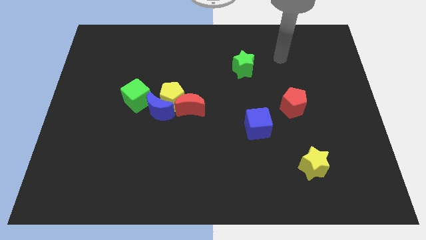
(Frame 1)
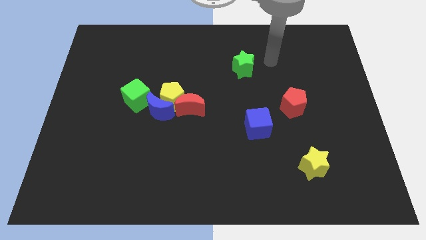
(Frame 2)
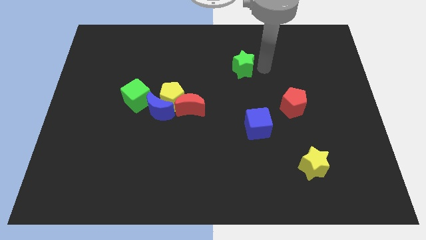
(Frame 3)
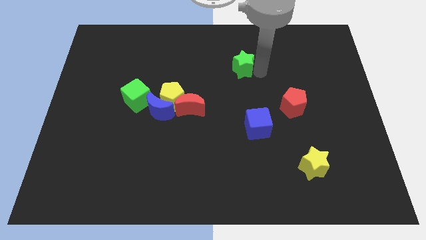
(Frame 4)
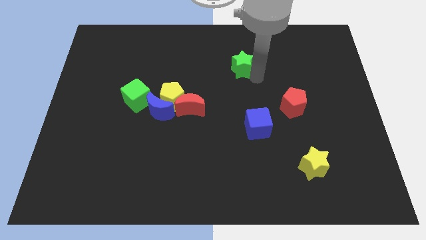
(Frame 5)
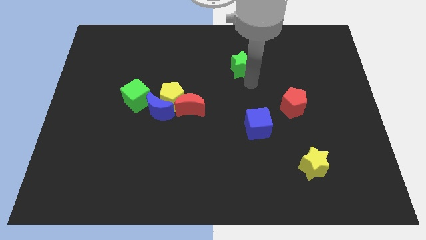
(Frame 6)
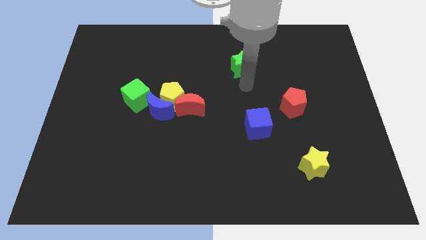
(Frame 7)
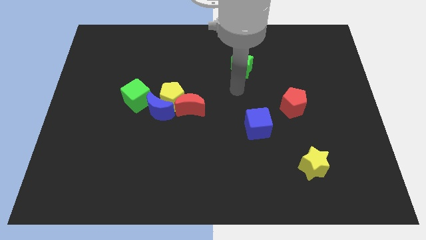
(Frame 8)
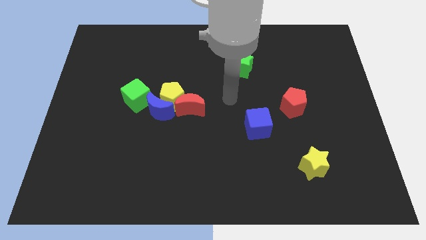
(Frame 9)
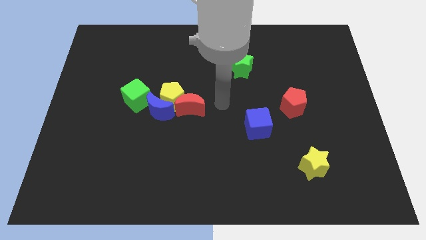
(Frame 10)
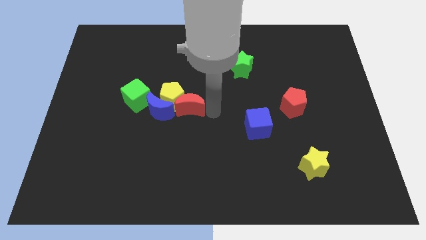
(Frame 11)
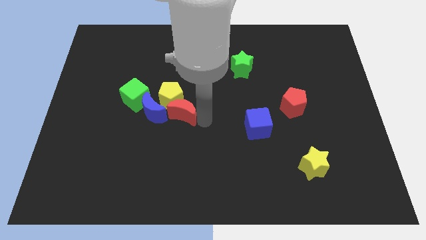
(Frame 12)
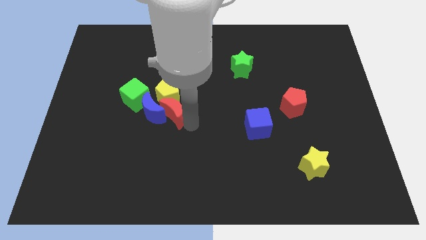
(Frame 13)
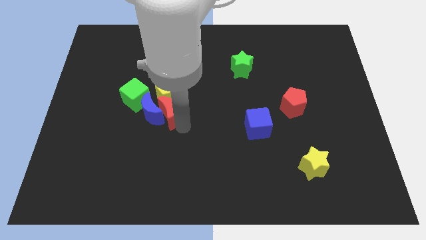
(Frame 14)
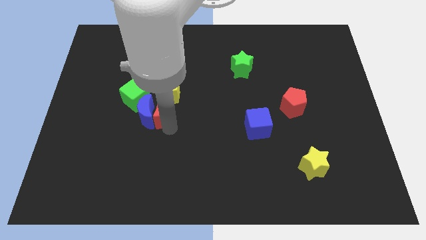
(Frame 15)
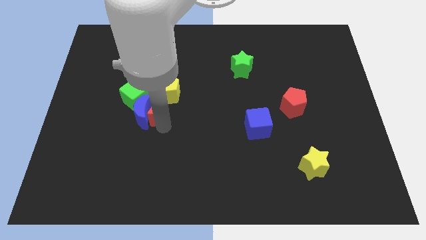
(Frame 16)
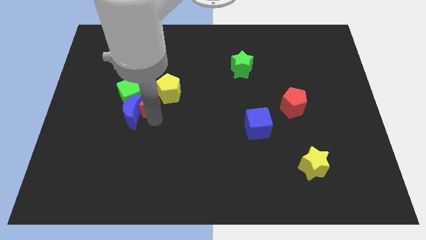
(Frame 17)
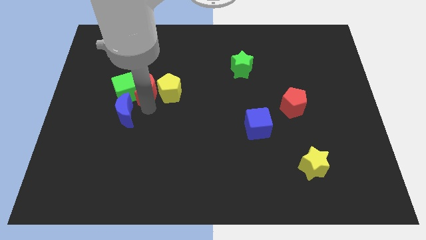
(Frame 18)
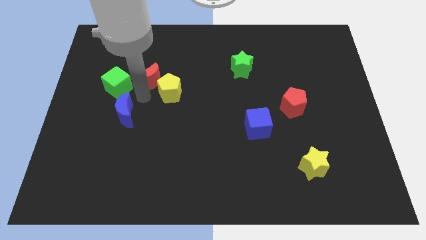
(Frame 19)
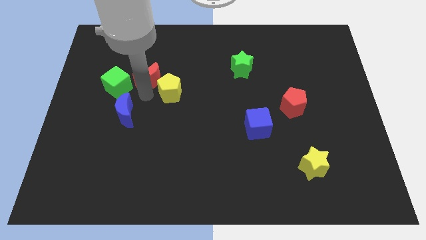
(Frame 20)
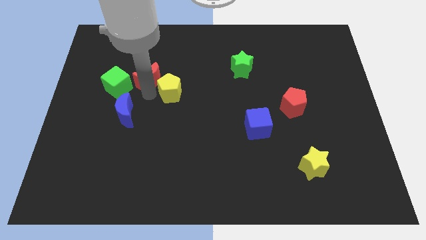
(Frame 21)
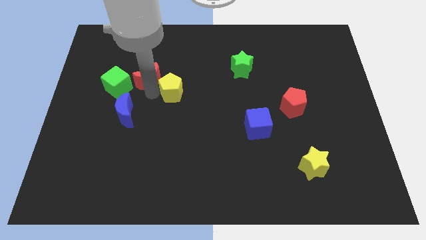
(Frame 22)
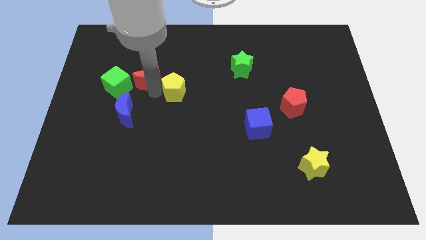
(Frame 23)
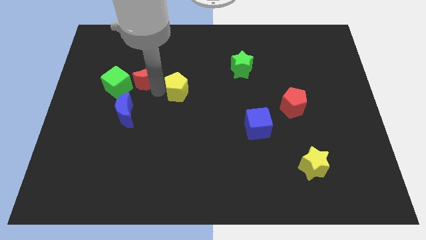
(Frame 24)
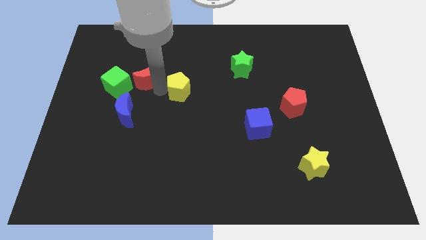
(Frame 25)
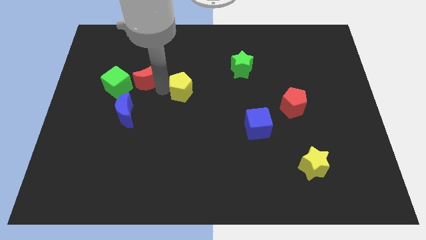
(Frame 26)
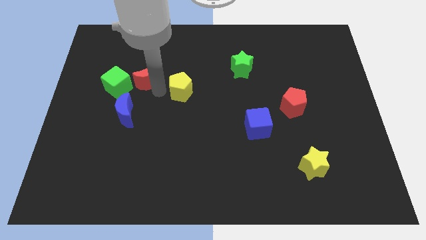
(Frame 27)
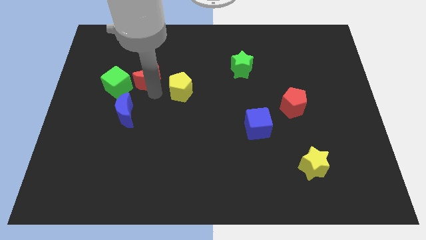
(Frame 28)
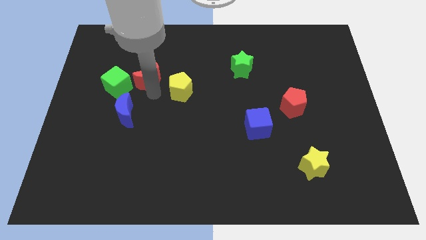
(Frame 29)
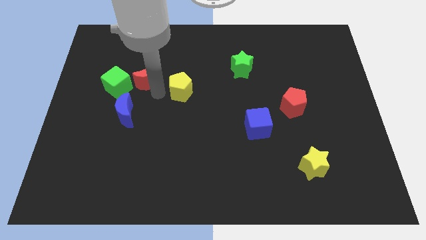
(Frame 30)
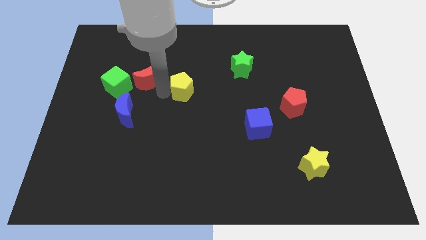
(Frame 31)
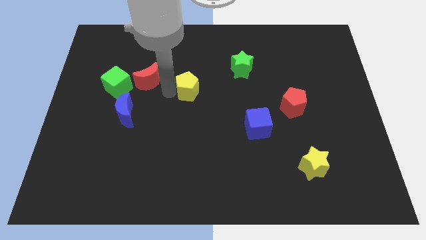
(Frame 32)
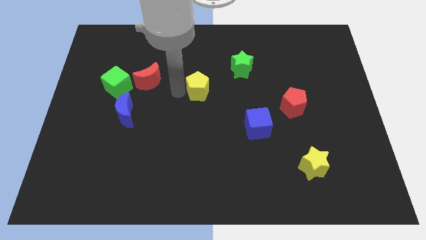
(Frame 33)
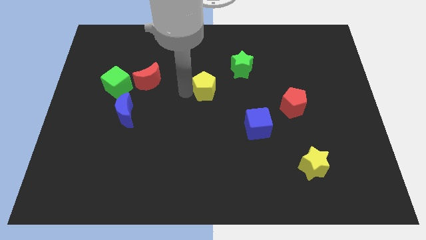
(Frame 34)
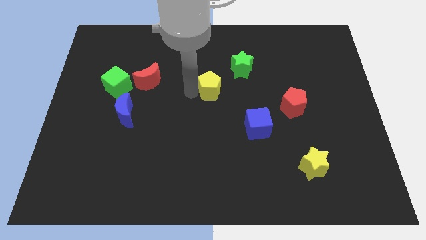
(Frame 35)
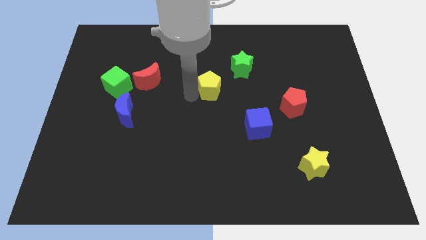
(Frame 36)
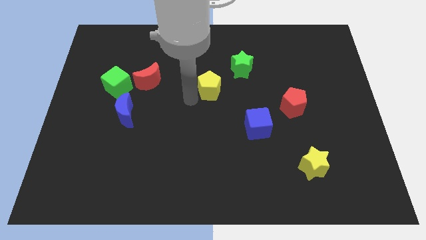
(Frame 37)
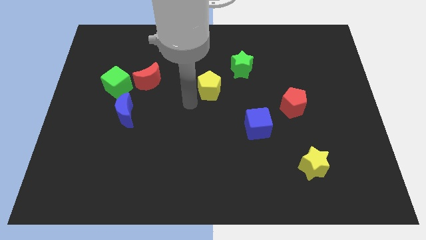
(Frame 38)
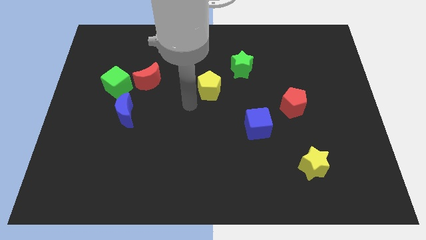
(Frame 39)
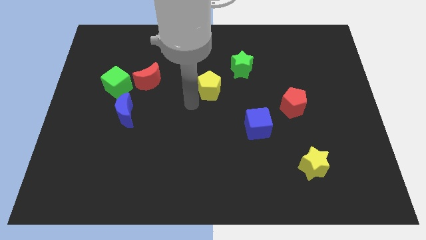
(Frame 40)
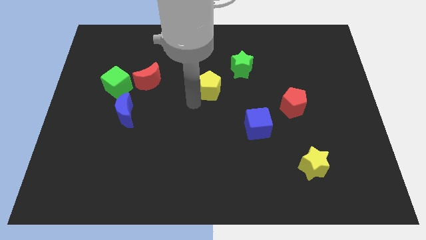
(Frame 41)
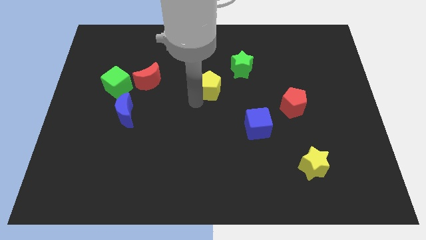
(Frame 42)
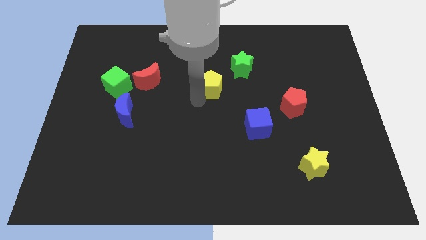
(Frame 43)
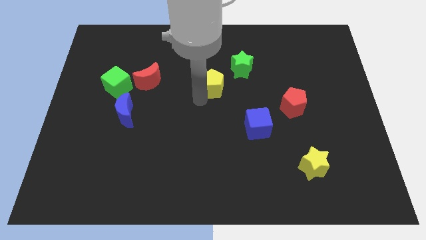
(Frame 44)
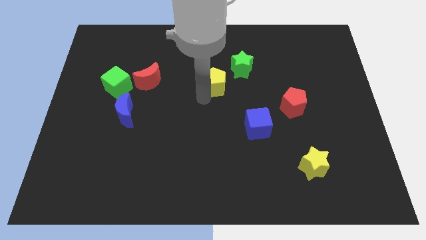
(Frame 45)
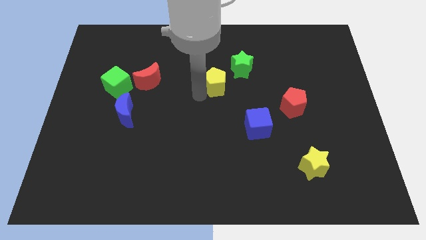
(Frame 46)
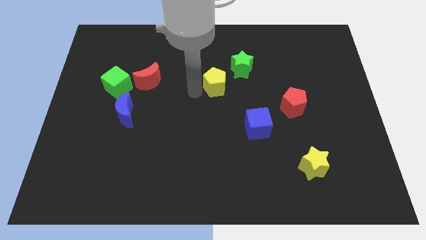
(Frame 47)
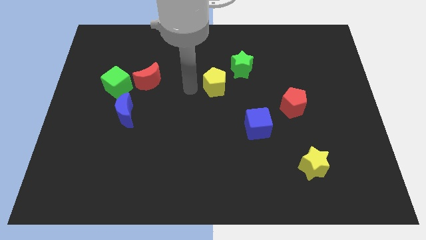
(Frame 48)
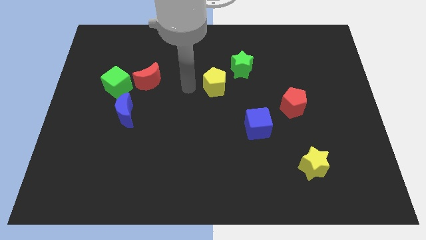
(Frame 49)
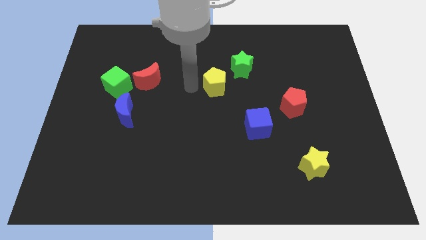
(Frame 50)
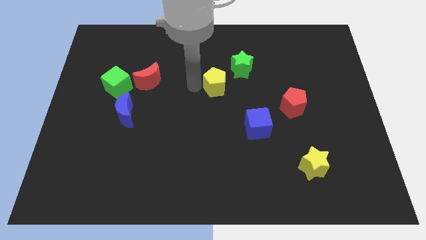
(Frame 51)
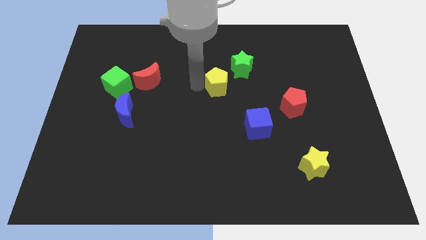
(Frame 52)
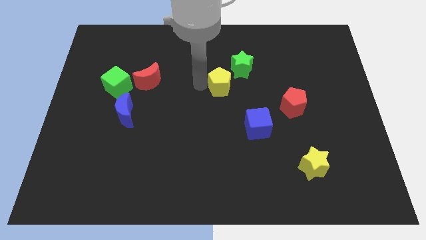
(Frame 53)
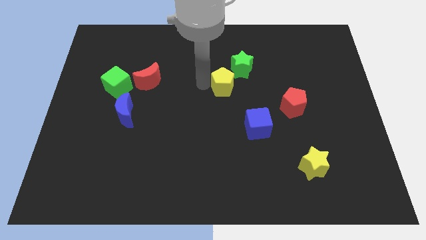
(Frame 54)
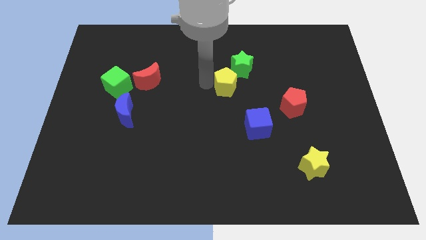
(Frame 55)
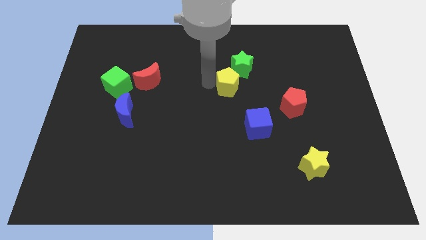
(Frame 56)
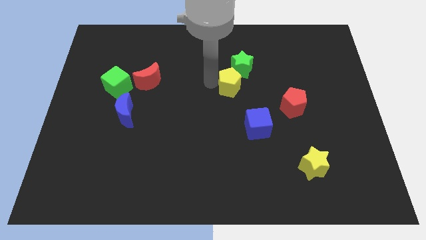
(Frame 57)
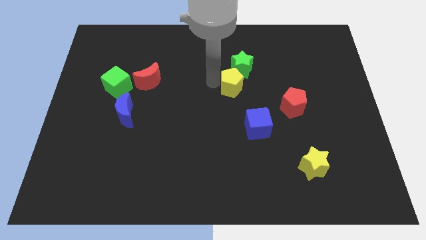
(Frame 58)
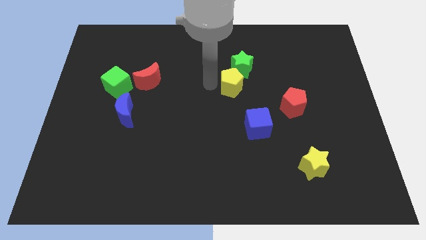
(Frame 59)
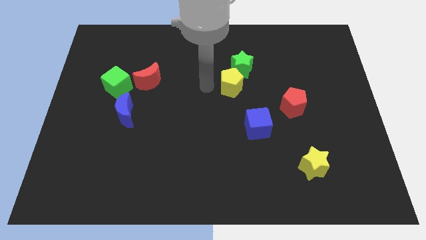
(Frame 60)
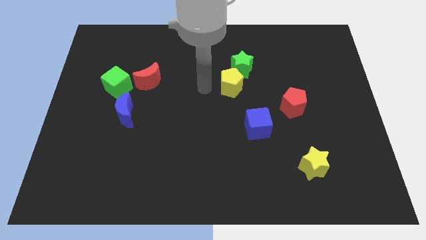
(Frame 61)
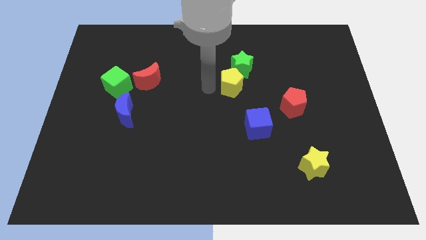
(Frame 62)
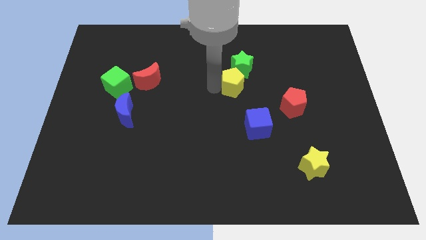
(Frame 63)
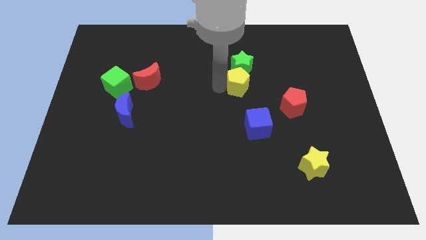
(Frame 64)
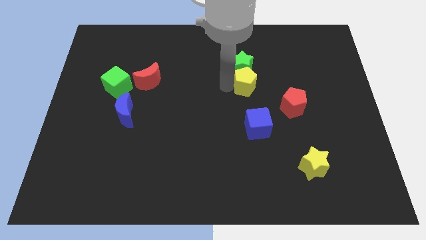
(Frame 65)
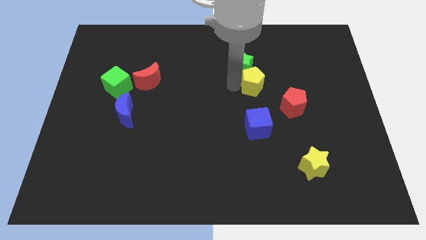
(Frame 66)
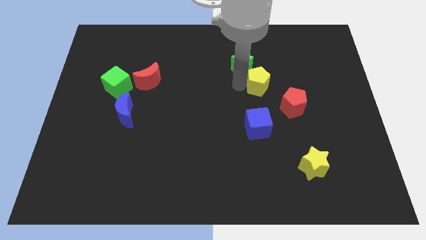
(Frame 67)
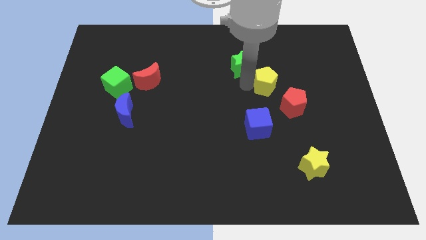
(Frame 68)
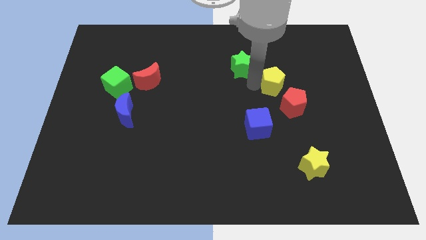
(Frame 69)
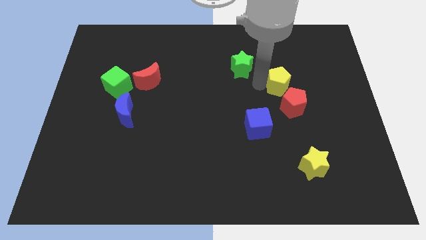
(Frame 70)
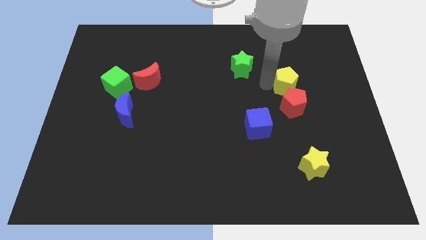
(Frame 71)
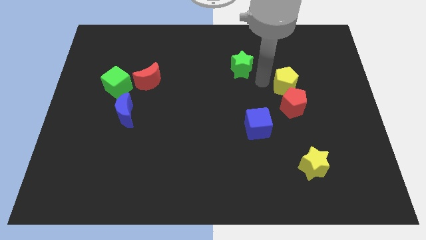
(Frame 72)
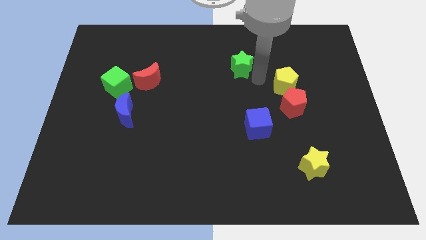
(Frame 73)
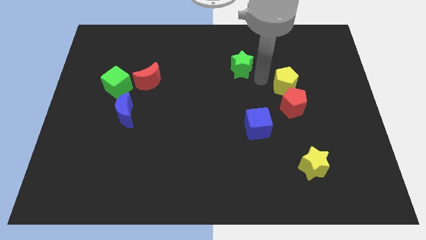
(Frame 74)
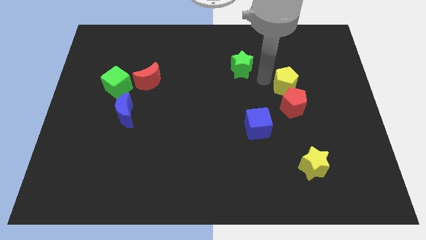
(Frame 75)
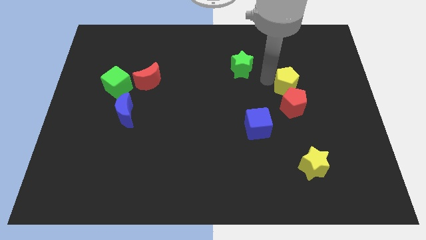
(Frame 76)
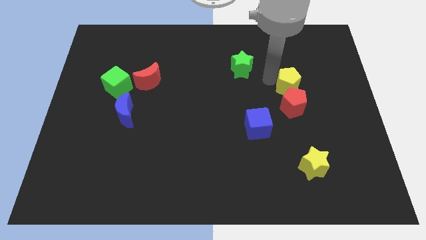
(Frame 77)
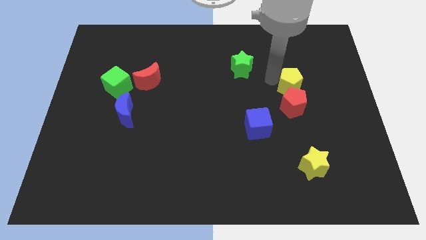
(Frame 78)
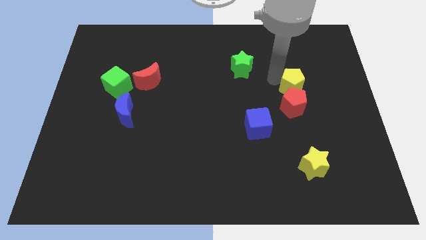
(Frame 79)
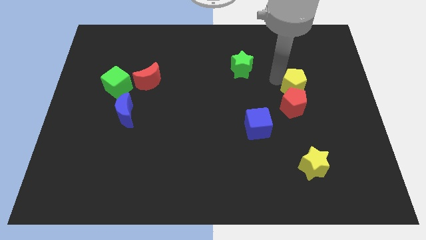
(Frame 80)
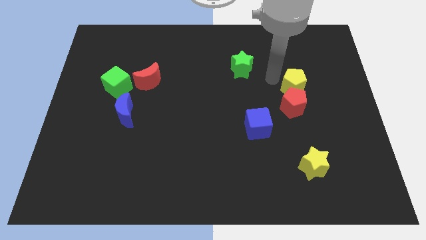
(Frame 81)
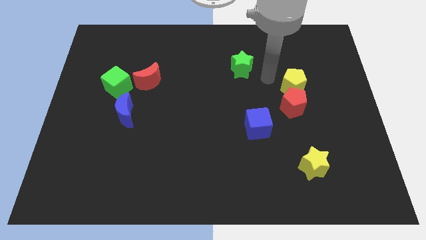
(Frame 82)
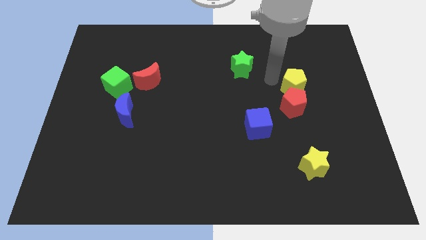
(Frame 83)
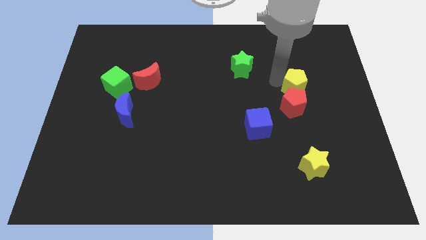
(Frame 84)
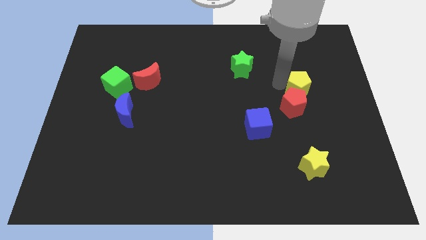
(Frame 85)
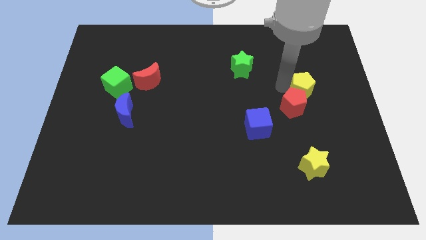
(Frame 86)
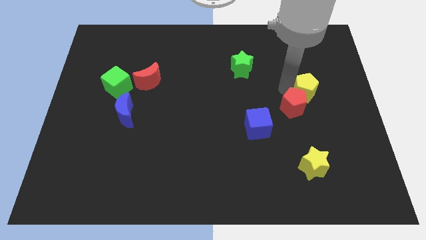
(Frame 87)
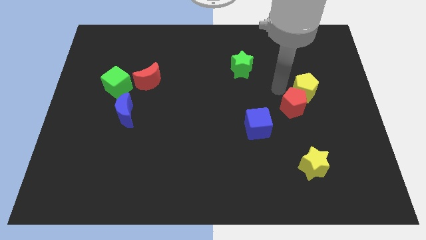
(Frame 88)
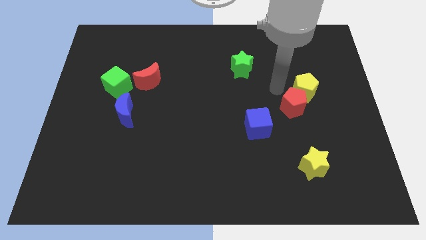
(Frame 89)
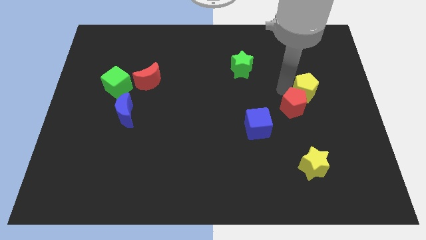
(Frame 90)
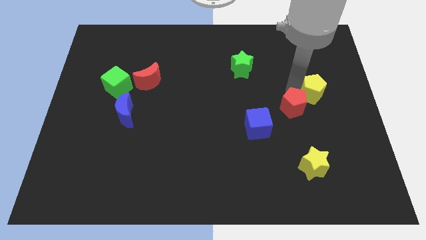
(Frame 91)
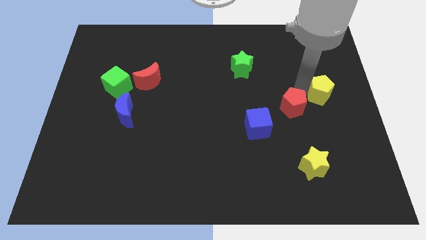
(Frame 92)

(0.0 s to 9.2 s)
push the yellow pentagon to the right side of the board
